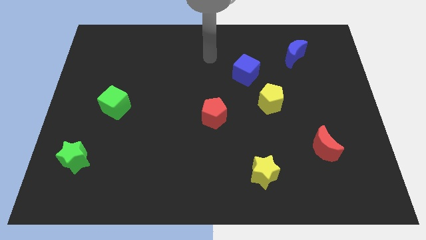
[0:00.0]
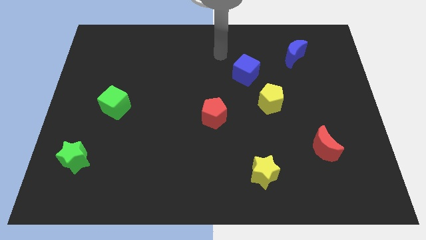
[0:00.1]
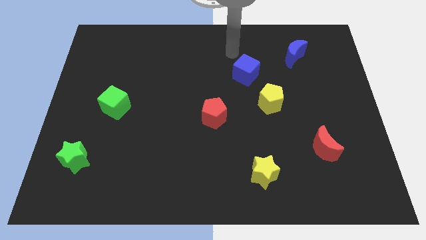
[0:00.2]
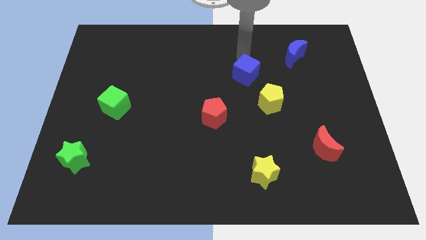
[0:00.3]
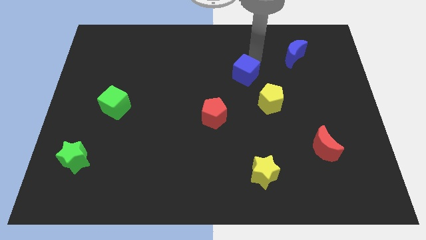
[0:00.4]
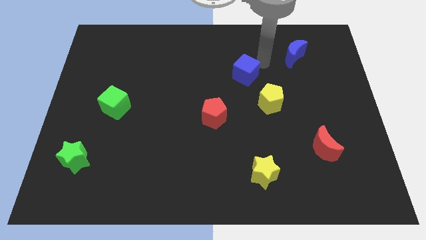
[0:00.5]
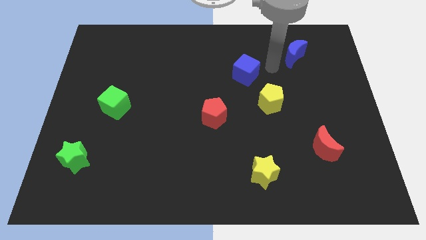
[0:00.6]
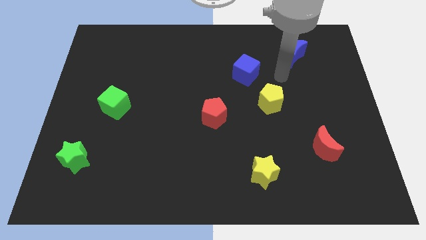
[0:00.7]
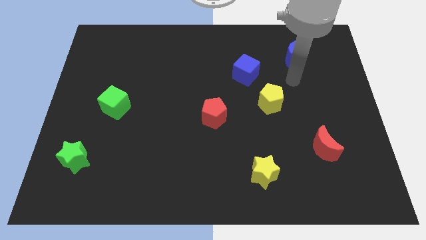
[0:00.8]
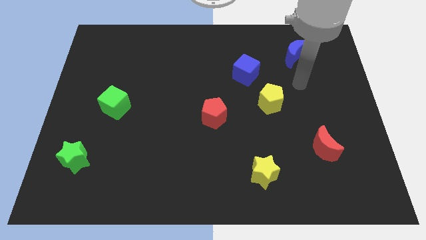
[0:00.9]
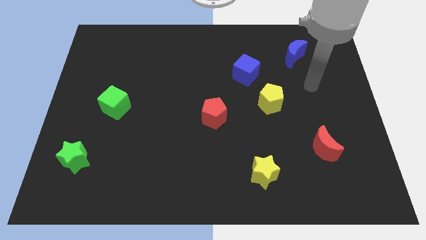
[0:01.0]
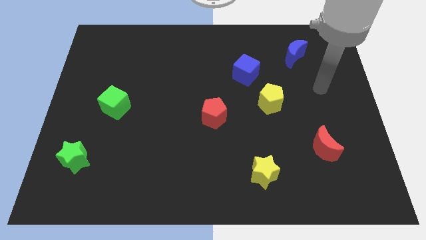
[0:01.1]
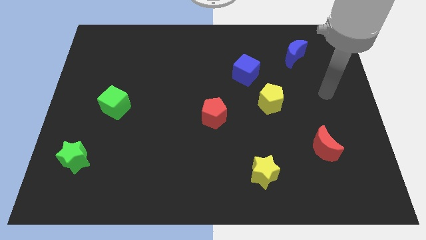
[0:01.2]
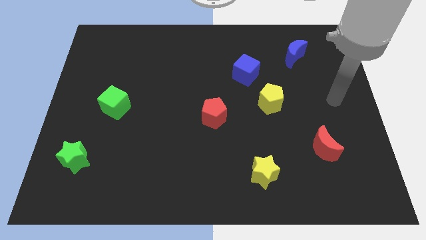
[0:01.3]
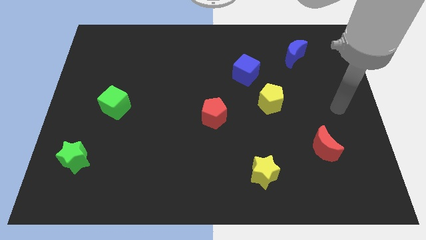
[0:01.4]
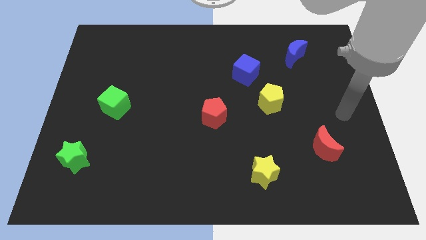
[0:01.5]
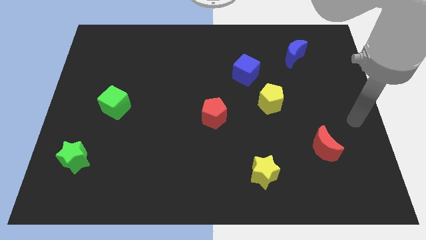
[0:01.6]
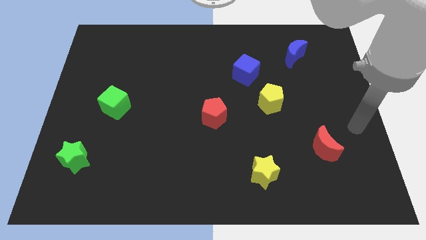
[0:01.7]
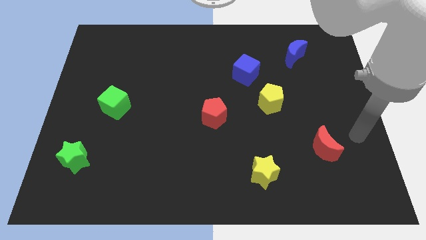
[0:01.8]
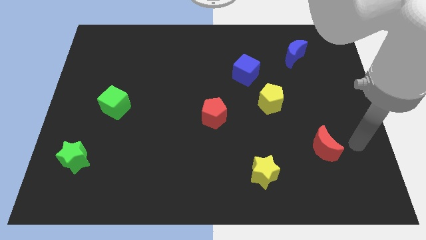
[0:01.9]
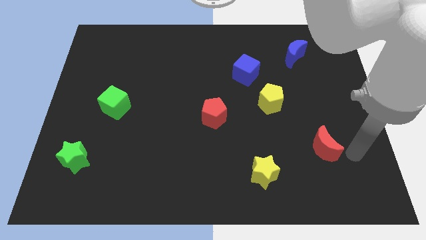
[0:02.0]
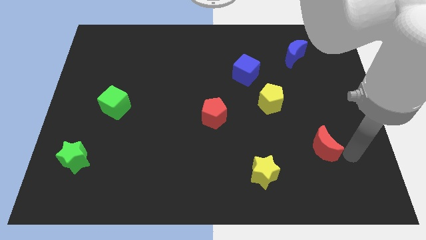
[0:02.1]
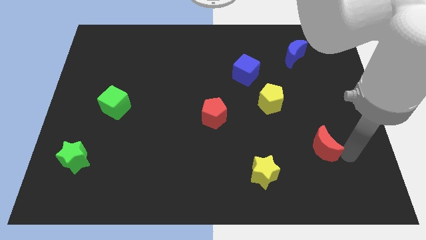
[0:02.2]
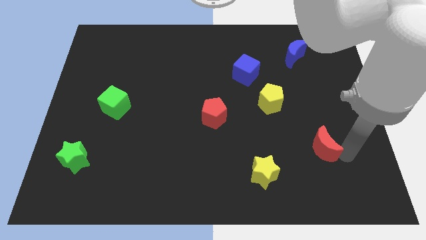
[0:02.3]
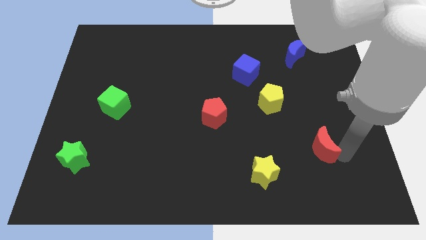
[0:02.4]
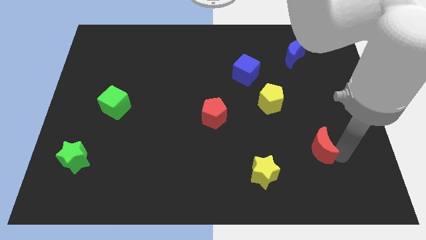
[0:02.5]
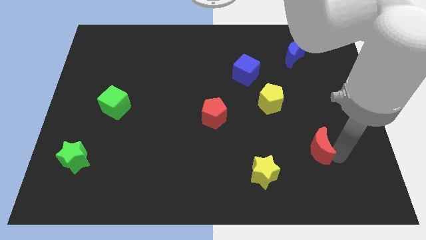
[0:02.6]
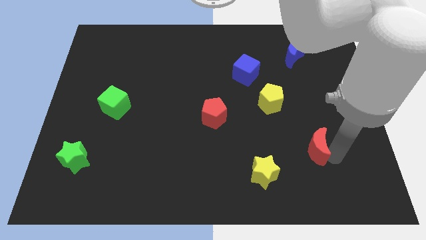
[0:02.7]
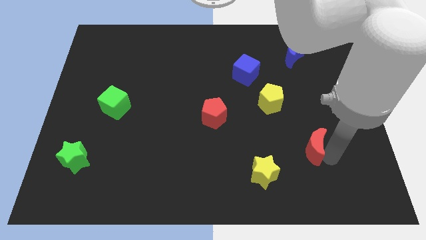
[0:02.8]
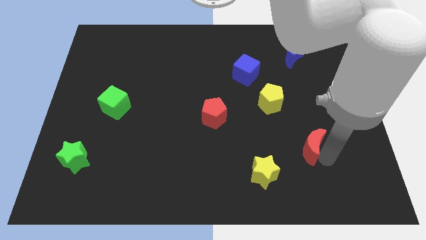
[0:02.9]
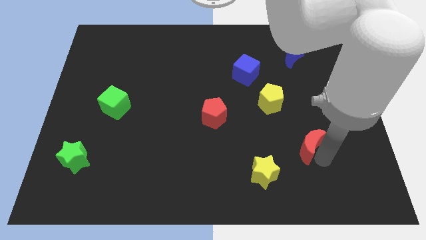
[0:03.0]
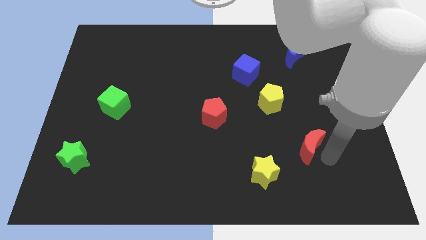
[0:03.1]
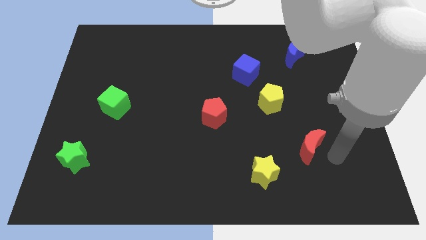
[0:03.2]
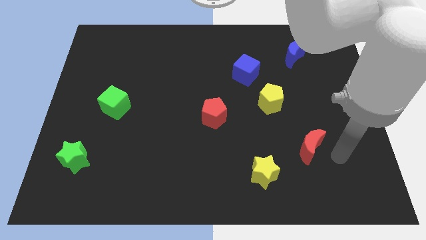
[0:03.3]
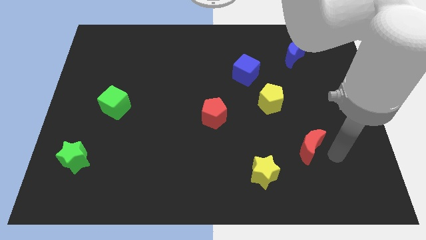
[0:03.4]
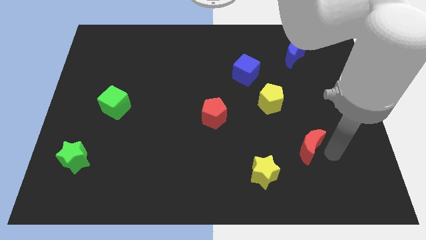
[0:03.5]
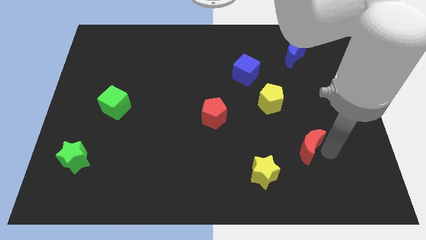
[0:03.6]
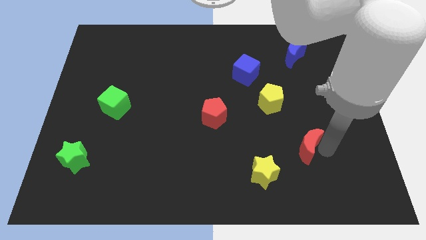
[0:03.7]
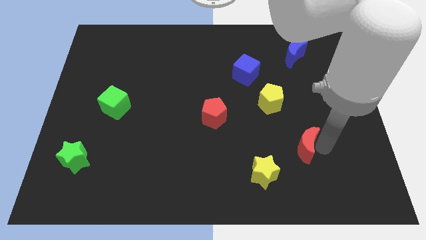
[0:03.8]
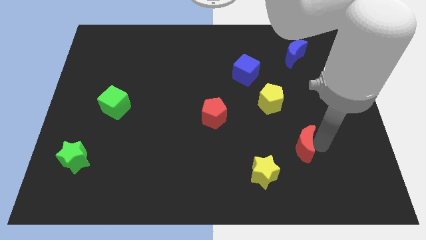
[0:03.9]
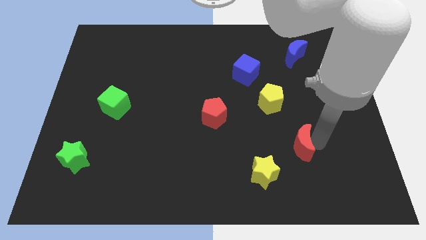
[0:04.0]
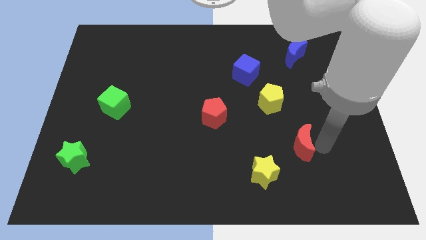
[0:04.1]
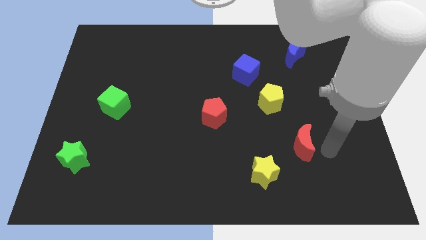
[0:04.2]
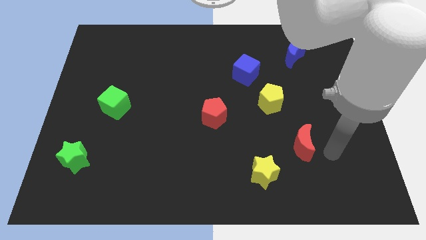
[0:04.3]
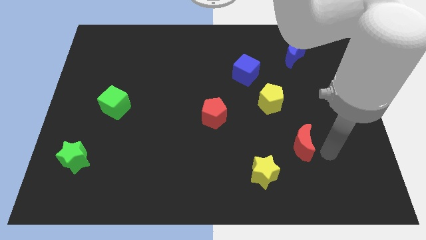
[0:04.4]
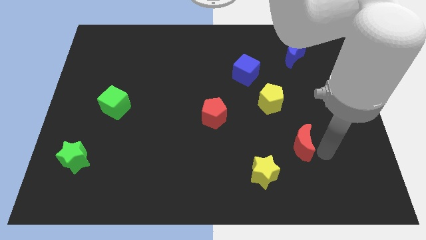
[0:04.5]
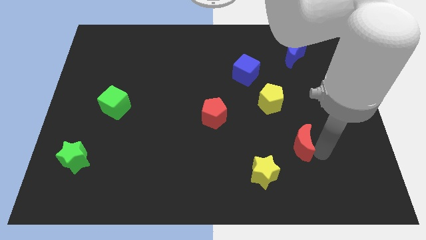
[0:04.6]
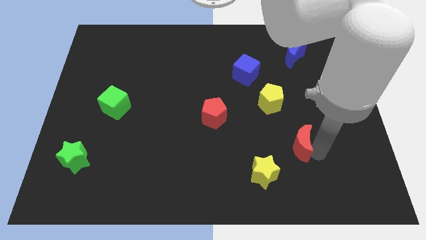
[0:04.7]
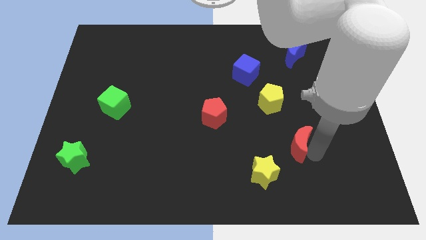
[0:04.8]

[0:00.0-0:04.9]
slide the red moon to the bottom of the yellow pentagon

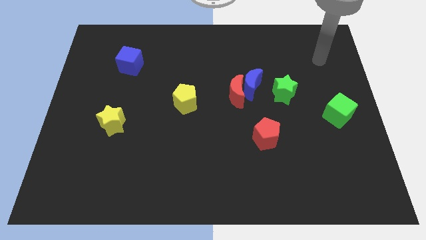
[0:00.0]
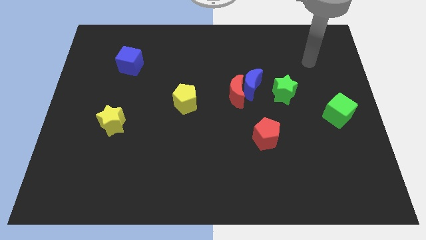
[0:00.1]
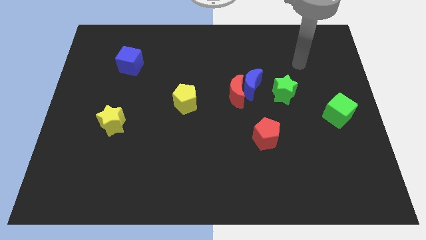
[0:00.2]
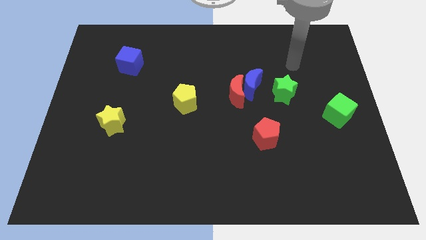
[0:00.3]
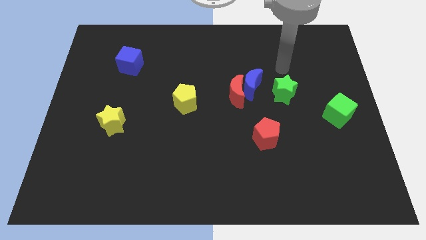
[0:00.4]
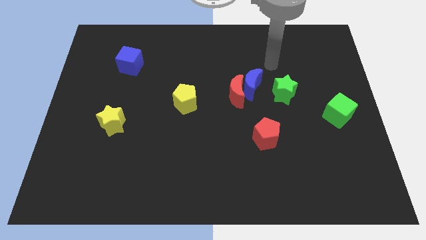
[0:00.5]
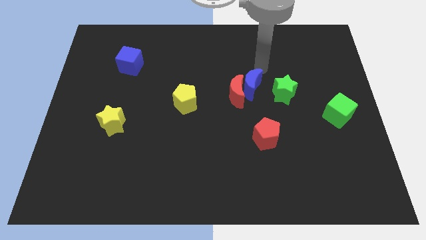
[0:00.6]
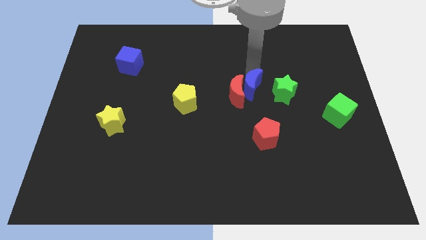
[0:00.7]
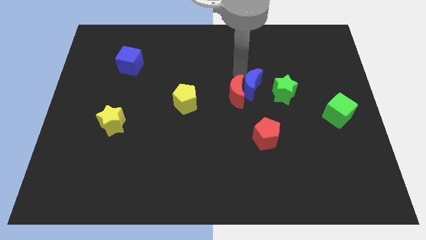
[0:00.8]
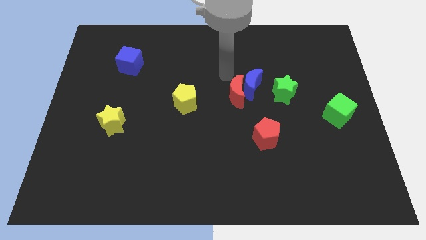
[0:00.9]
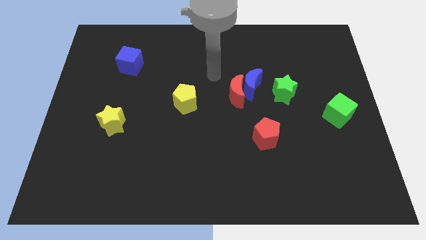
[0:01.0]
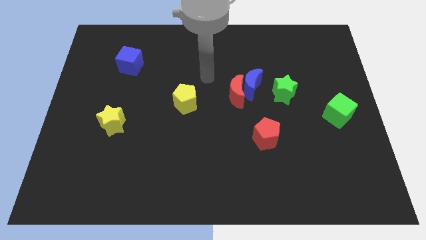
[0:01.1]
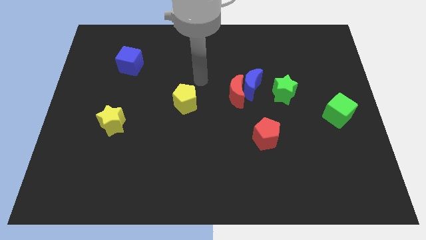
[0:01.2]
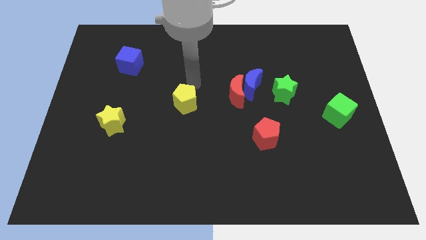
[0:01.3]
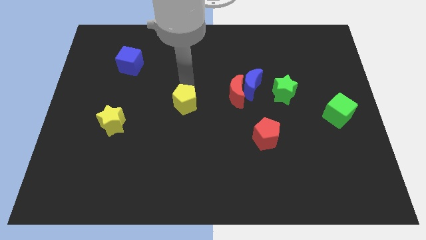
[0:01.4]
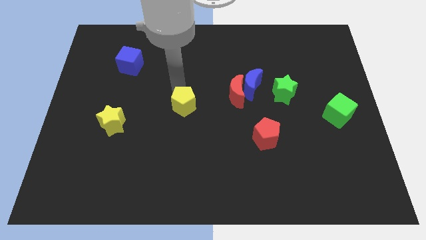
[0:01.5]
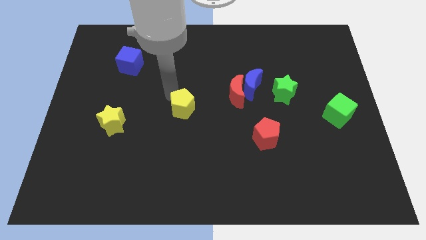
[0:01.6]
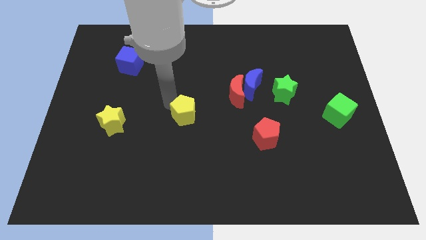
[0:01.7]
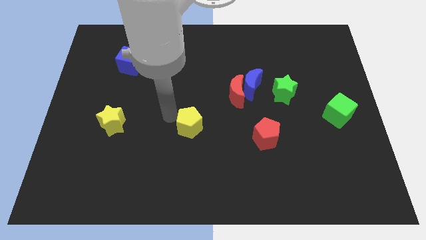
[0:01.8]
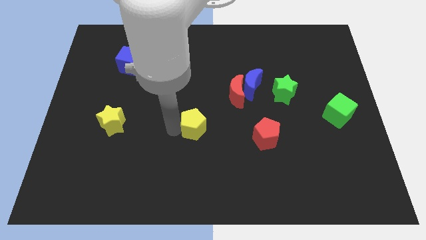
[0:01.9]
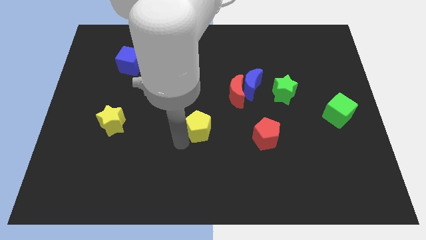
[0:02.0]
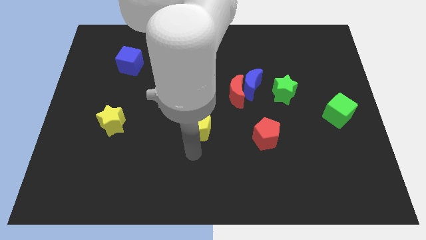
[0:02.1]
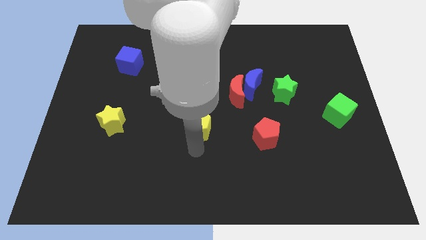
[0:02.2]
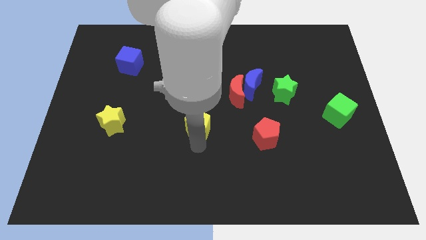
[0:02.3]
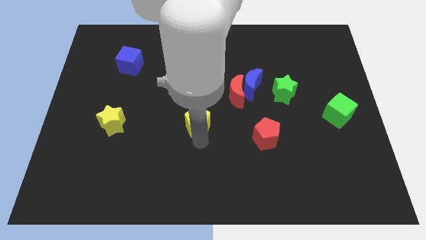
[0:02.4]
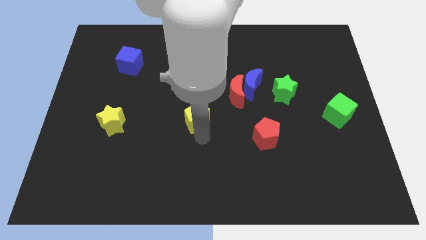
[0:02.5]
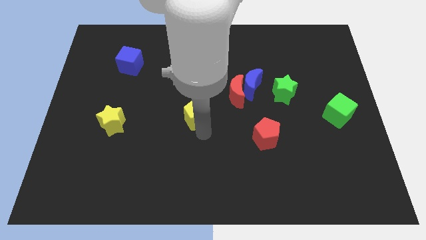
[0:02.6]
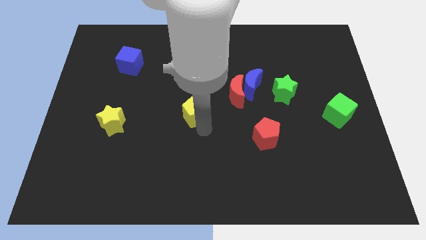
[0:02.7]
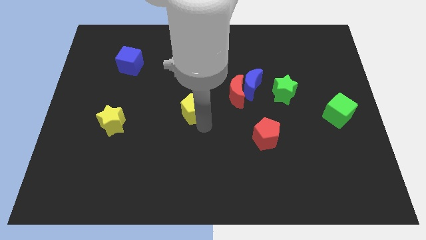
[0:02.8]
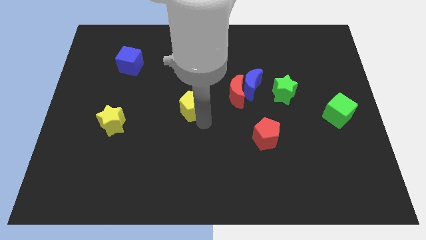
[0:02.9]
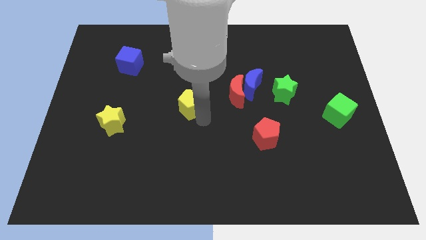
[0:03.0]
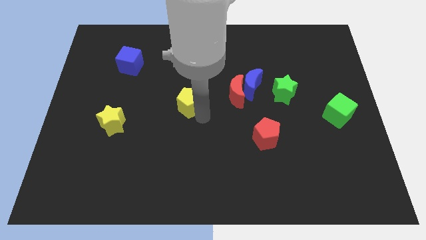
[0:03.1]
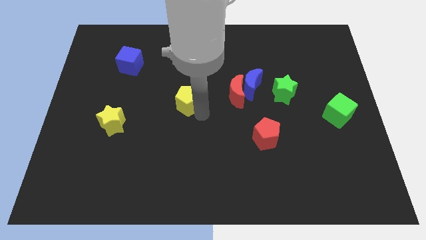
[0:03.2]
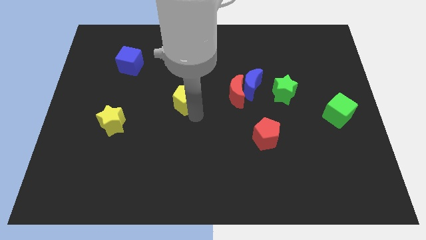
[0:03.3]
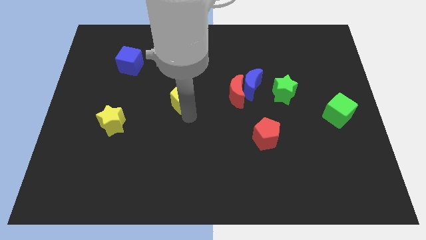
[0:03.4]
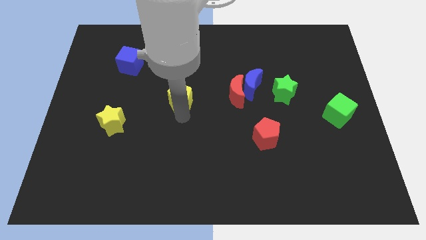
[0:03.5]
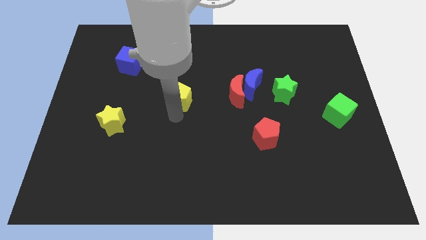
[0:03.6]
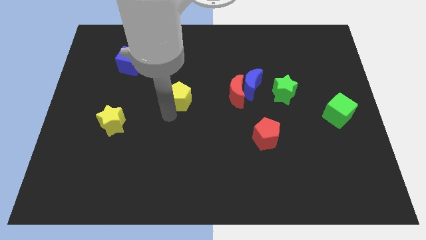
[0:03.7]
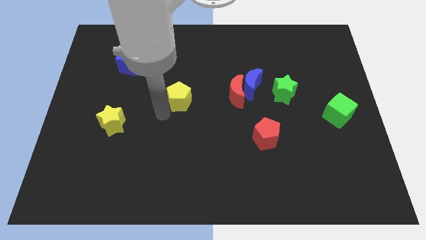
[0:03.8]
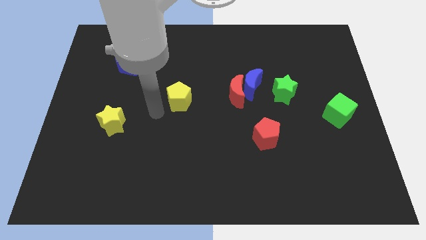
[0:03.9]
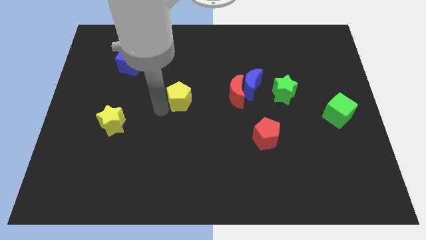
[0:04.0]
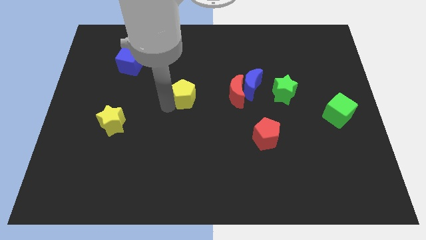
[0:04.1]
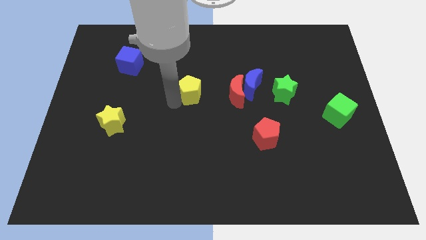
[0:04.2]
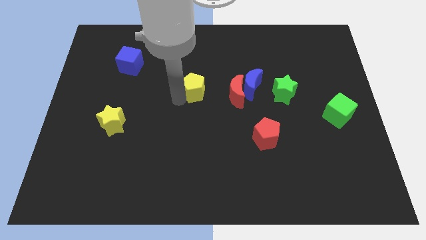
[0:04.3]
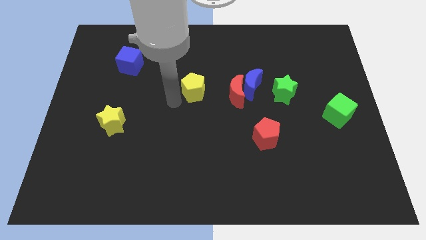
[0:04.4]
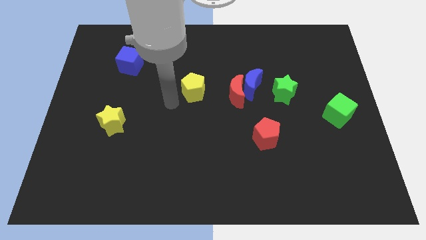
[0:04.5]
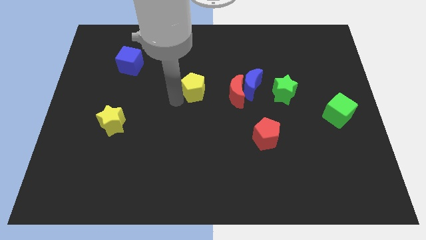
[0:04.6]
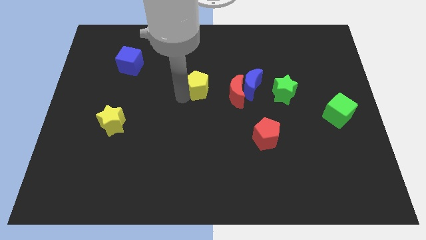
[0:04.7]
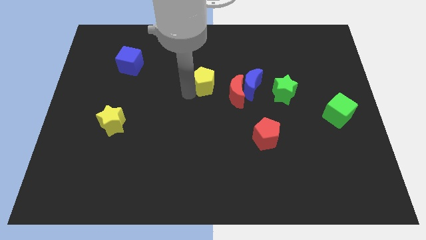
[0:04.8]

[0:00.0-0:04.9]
move the yellow pentagon diagonally up and to the left of the red moon
